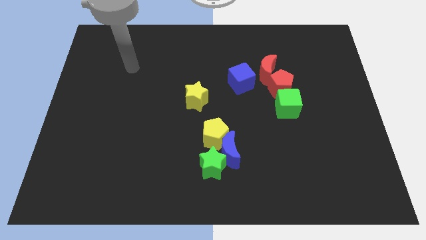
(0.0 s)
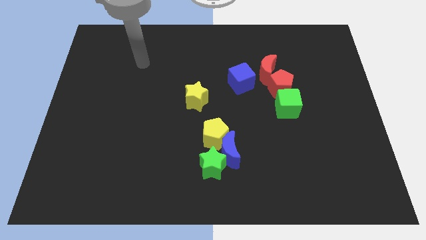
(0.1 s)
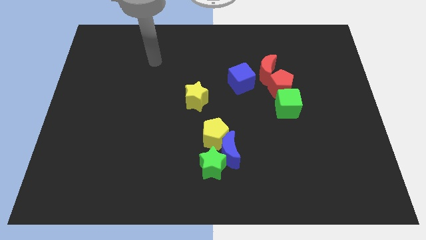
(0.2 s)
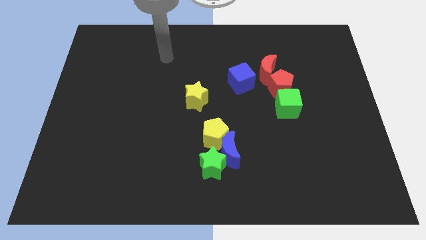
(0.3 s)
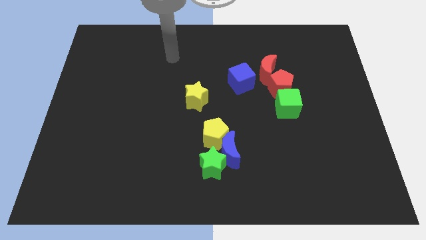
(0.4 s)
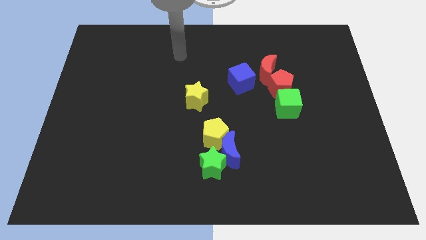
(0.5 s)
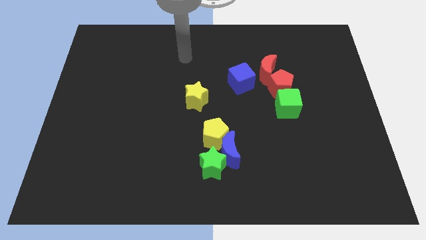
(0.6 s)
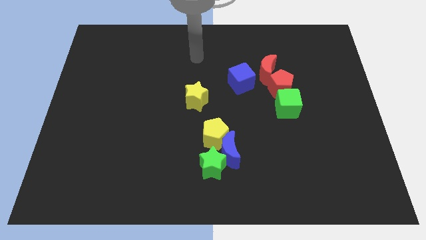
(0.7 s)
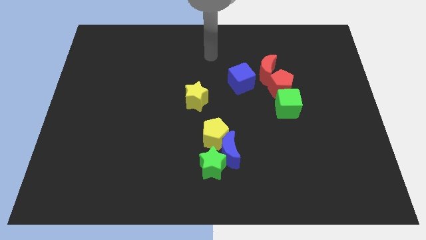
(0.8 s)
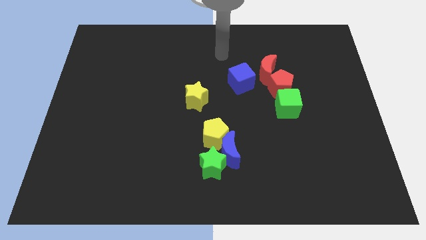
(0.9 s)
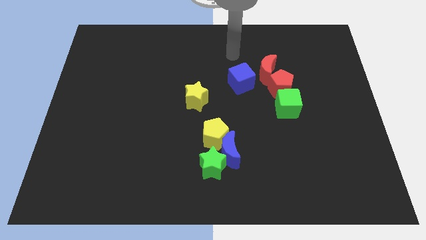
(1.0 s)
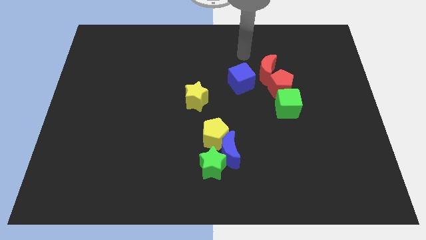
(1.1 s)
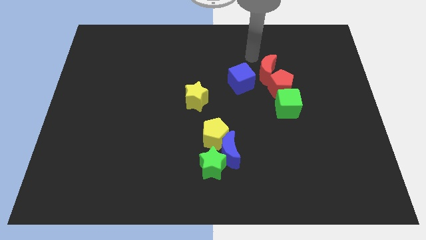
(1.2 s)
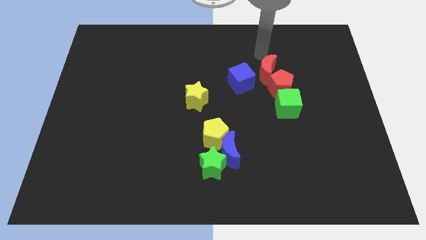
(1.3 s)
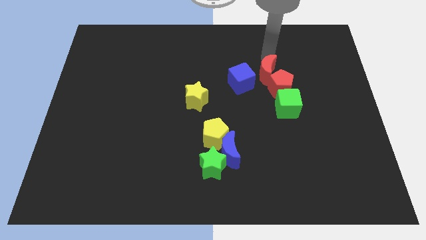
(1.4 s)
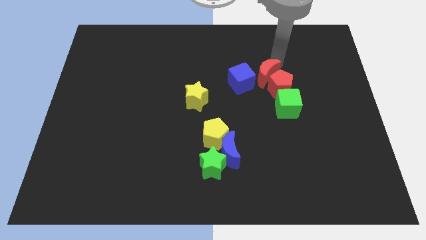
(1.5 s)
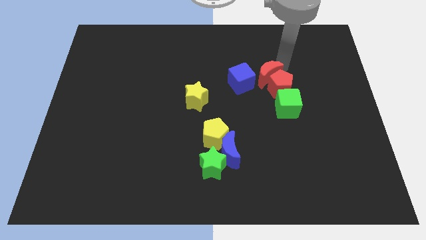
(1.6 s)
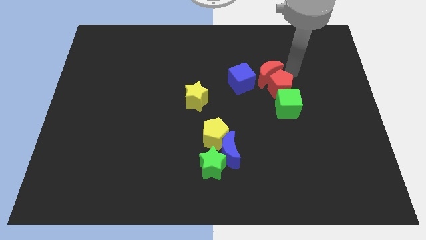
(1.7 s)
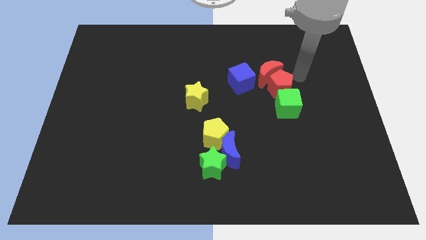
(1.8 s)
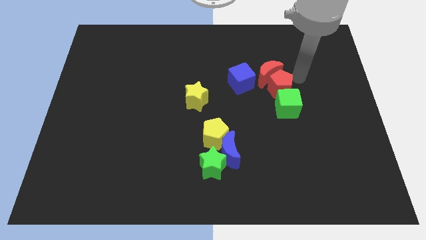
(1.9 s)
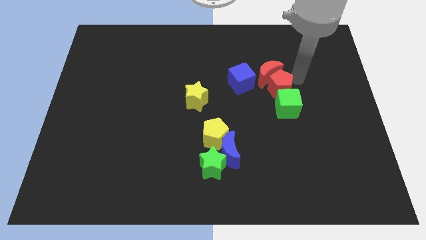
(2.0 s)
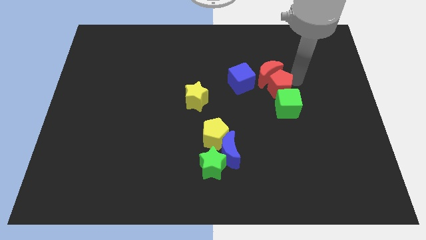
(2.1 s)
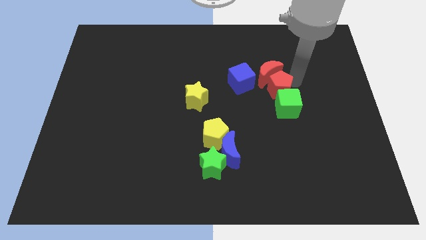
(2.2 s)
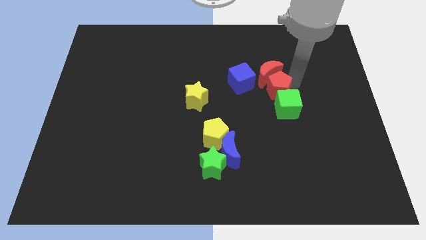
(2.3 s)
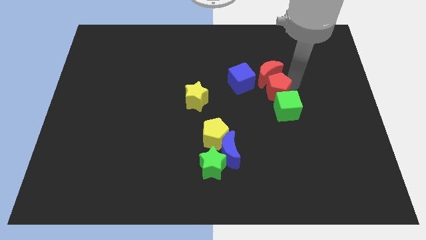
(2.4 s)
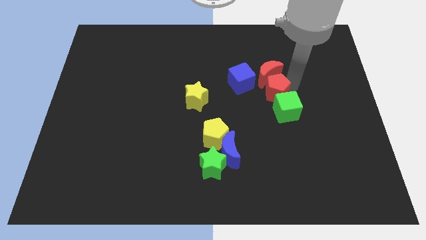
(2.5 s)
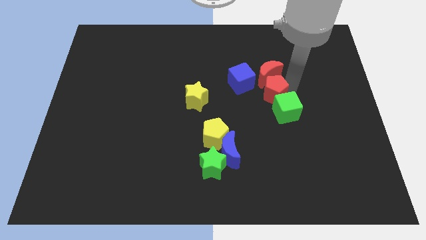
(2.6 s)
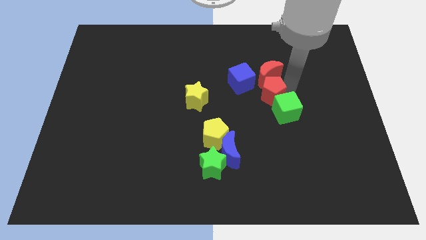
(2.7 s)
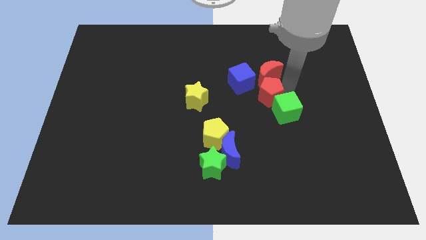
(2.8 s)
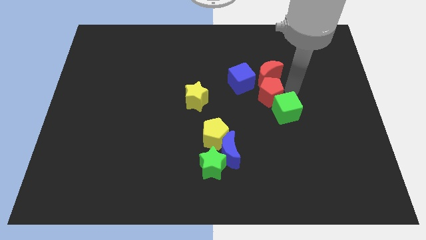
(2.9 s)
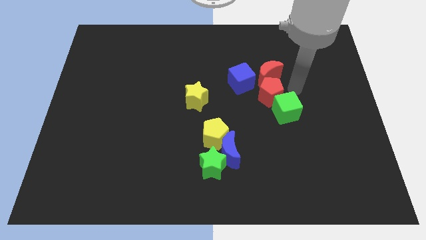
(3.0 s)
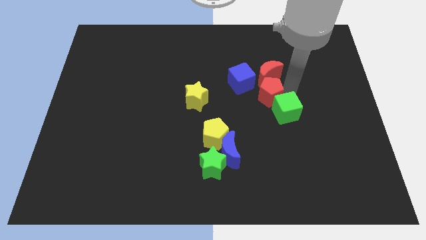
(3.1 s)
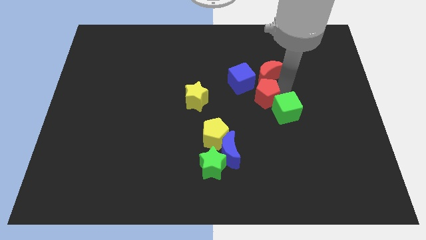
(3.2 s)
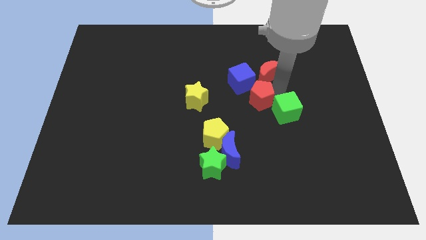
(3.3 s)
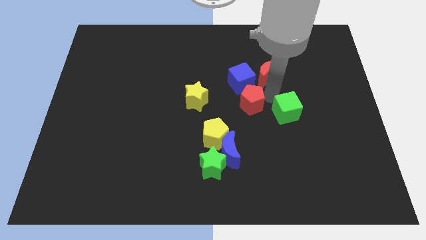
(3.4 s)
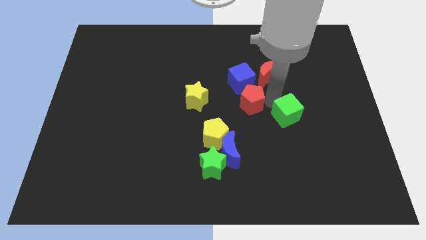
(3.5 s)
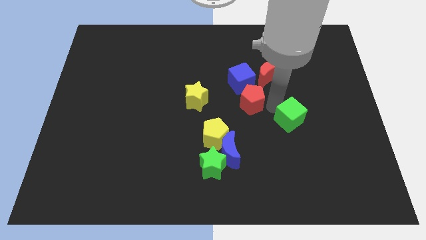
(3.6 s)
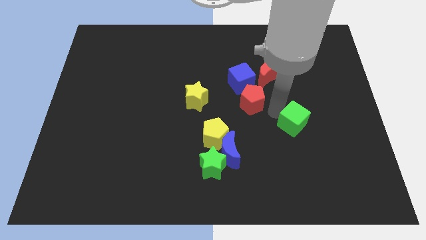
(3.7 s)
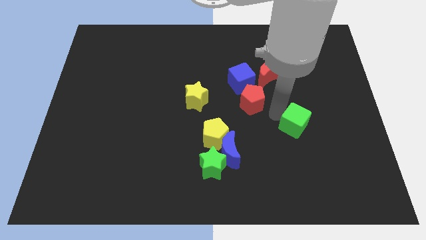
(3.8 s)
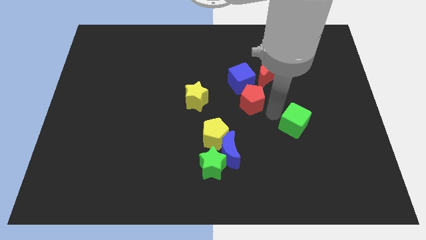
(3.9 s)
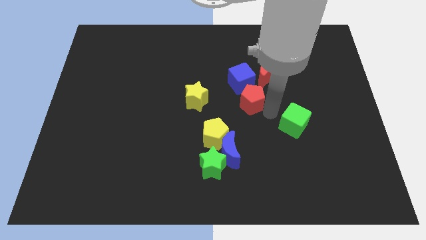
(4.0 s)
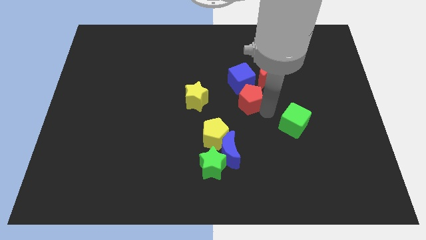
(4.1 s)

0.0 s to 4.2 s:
slightly slide the red pentagon left

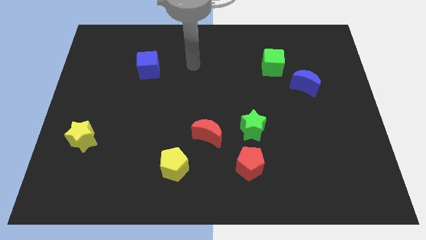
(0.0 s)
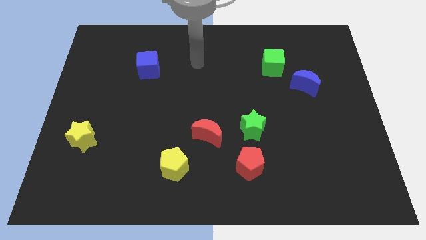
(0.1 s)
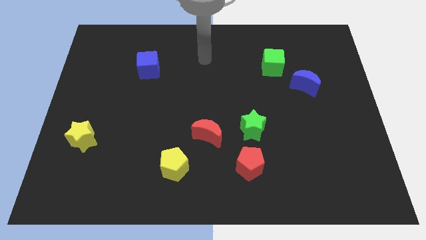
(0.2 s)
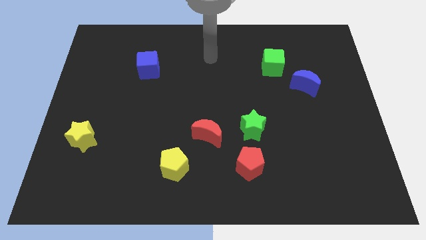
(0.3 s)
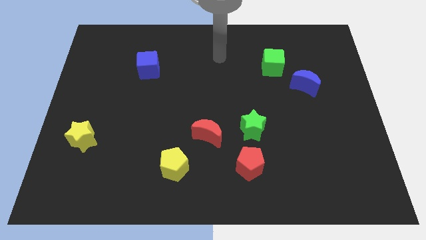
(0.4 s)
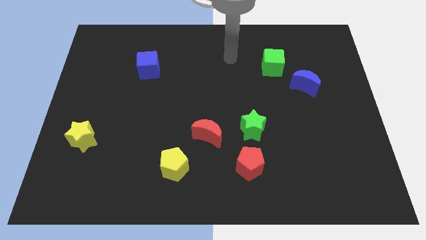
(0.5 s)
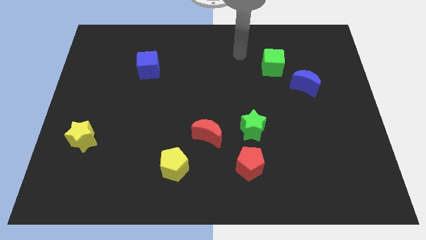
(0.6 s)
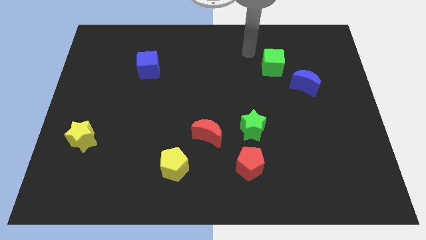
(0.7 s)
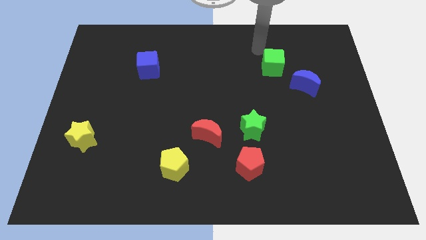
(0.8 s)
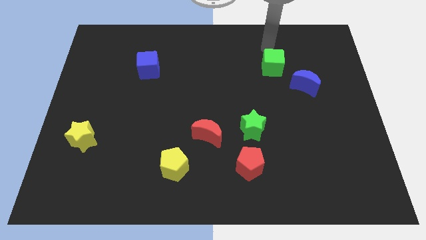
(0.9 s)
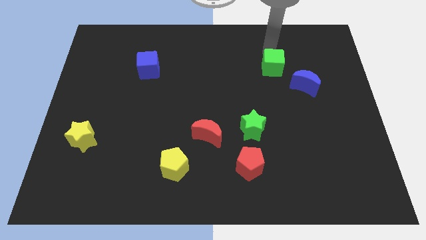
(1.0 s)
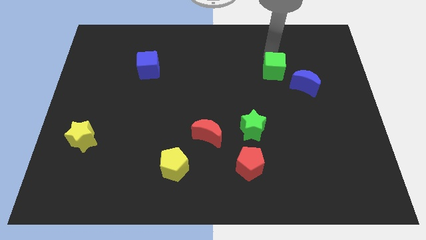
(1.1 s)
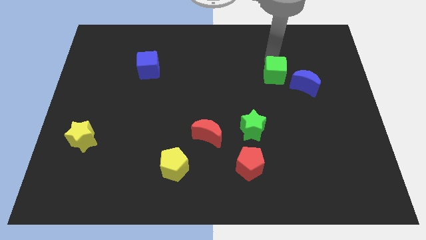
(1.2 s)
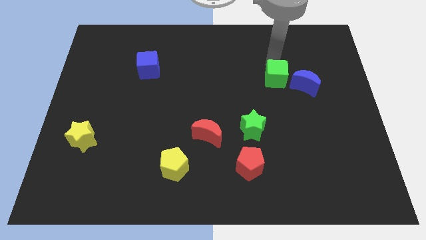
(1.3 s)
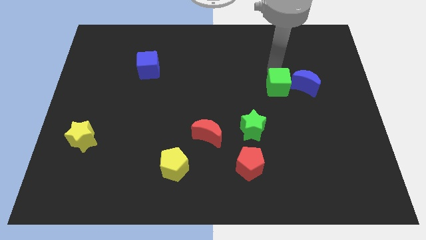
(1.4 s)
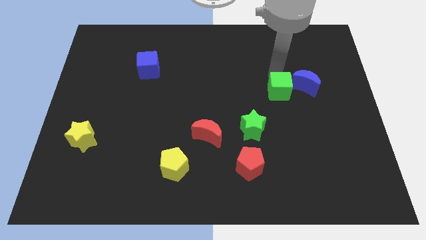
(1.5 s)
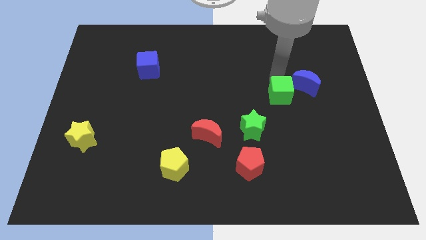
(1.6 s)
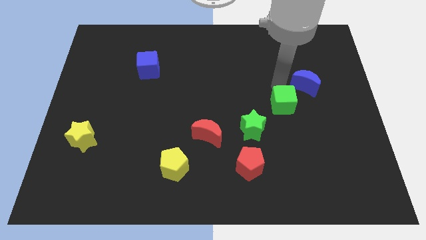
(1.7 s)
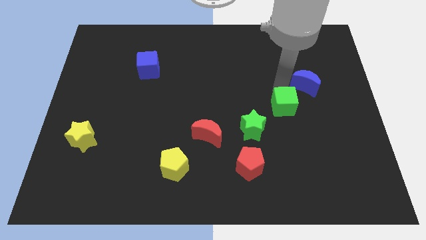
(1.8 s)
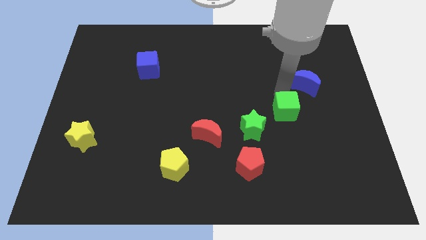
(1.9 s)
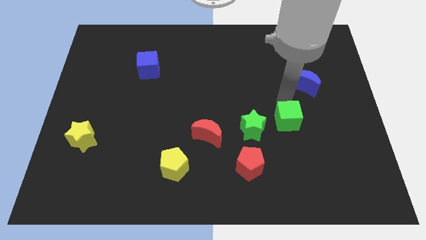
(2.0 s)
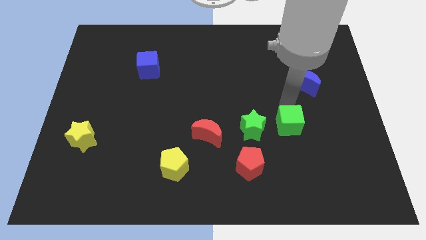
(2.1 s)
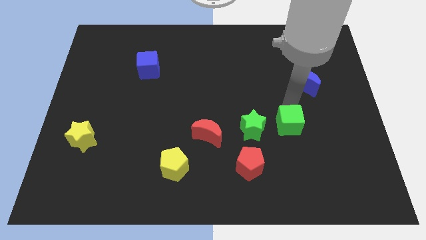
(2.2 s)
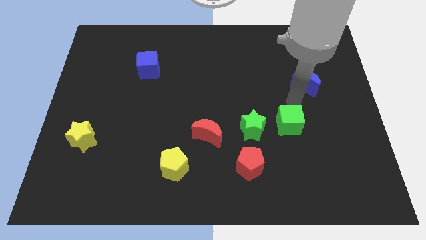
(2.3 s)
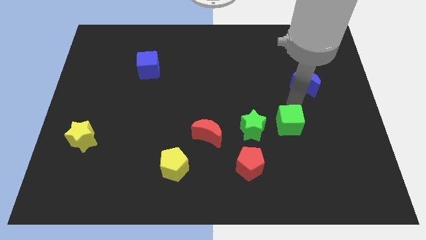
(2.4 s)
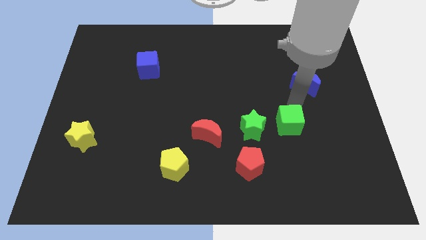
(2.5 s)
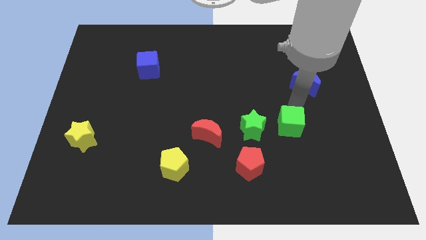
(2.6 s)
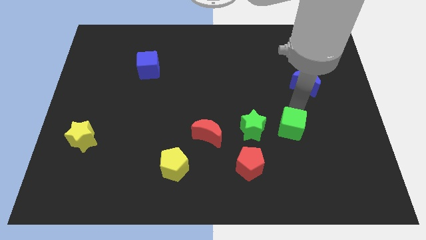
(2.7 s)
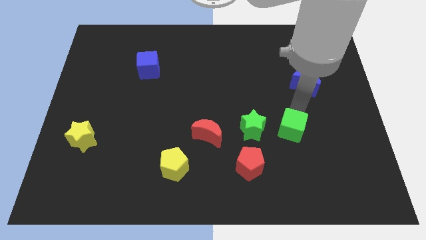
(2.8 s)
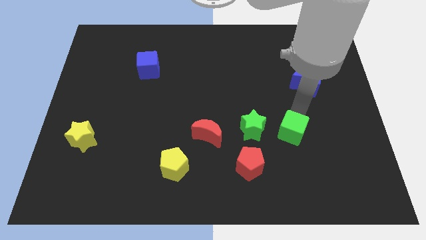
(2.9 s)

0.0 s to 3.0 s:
push the green cube down

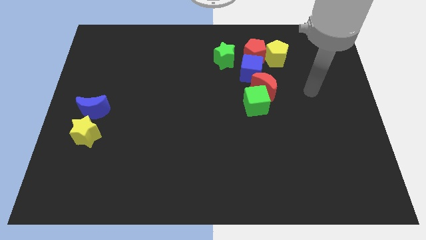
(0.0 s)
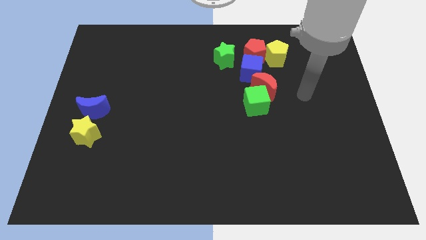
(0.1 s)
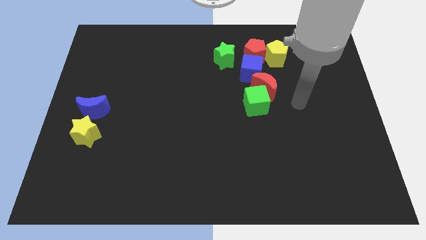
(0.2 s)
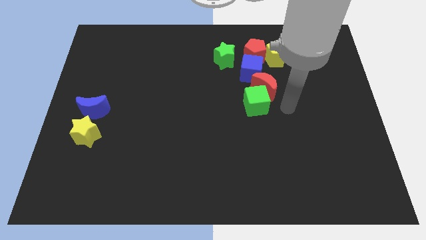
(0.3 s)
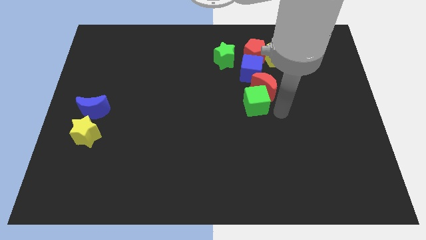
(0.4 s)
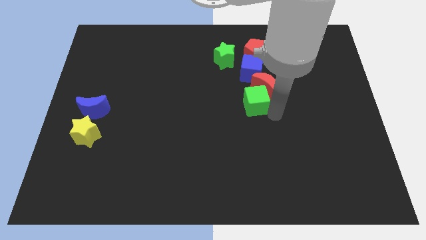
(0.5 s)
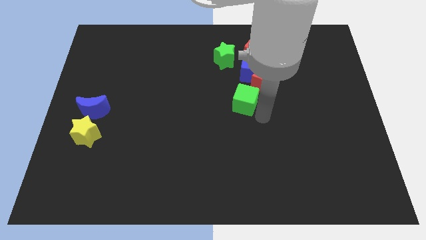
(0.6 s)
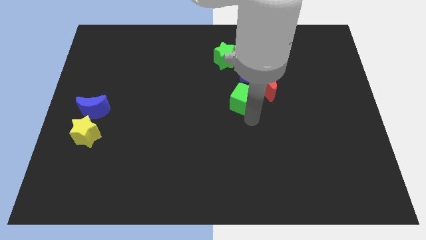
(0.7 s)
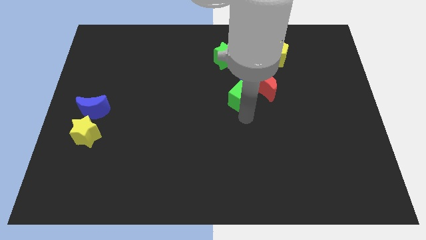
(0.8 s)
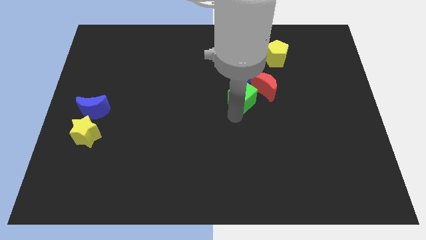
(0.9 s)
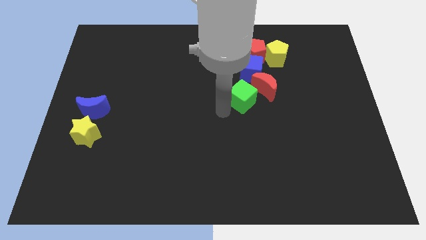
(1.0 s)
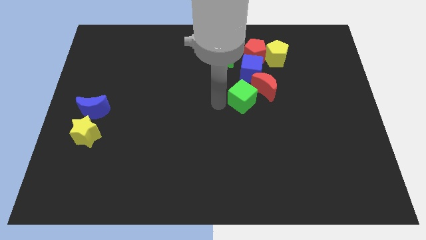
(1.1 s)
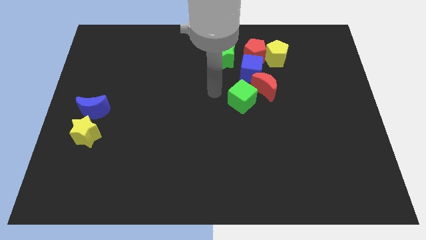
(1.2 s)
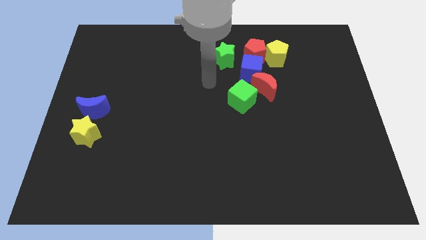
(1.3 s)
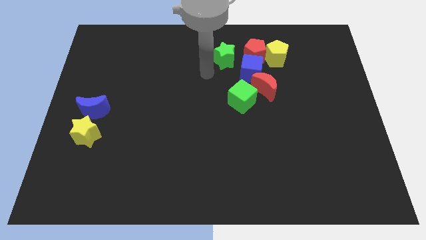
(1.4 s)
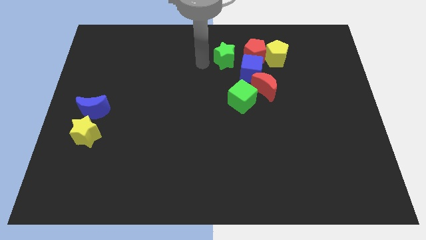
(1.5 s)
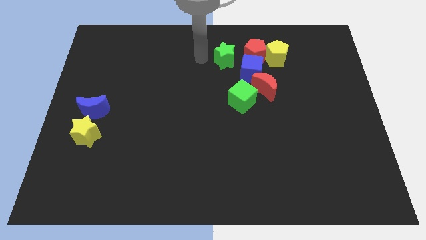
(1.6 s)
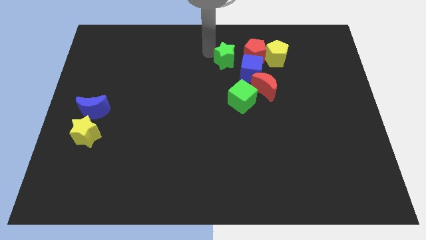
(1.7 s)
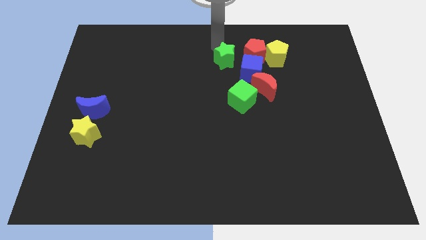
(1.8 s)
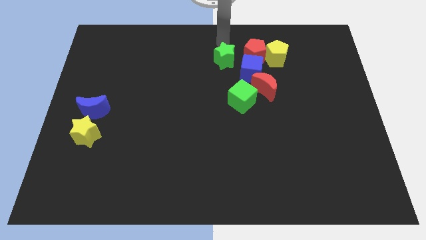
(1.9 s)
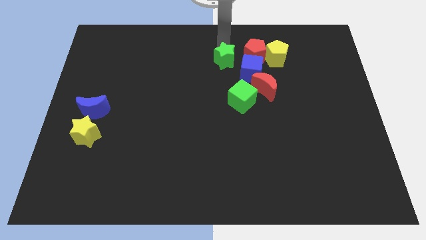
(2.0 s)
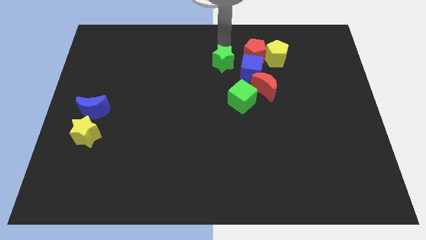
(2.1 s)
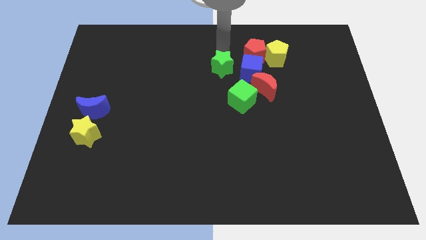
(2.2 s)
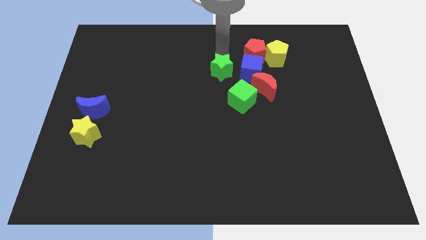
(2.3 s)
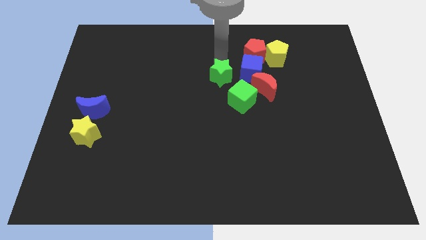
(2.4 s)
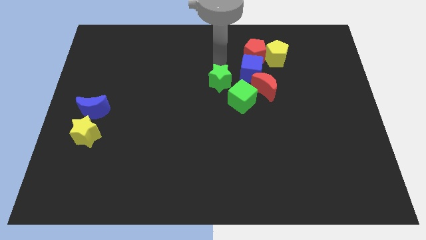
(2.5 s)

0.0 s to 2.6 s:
push the green star a little bit downwards
